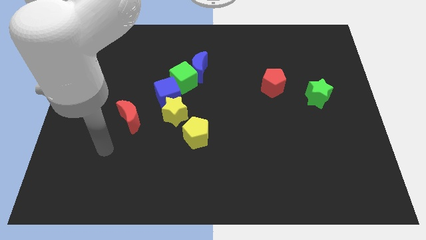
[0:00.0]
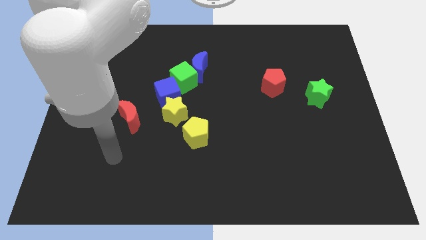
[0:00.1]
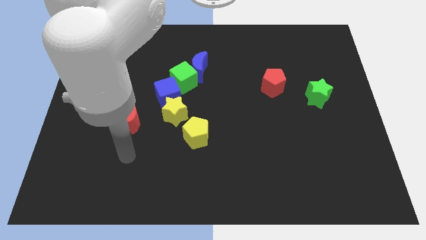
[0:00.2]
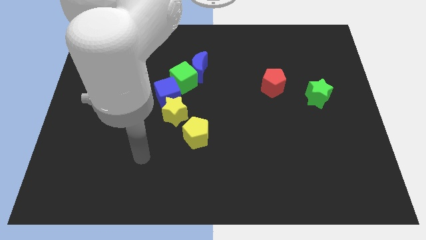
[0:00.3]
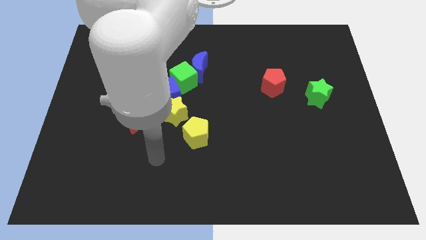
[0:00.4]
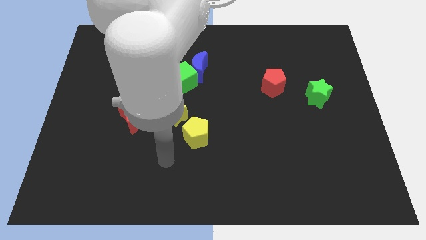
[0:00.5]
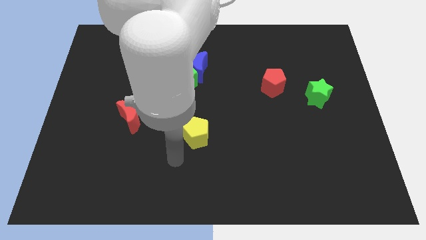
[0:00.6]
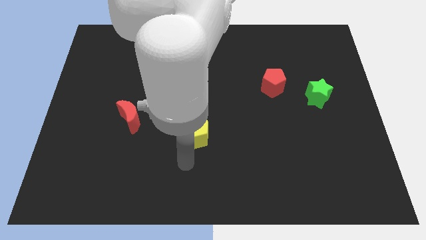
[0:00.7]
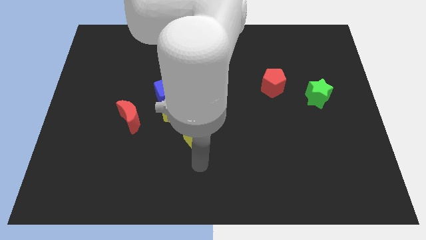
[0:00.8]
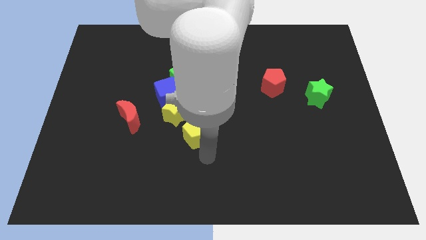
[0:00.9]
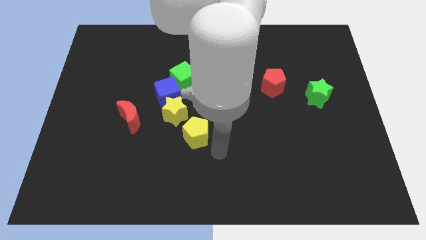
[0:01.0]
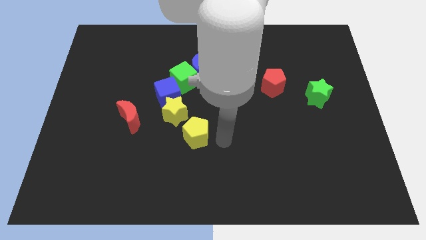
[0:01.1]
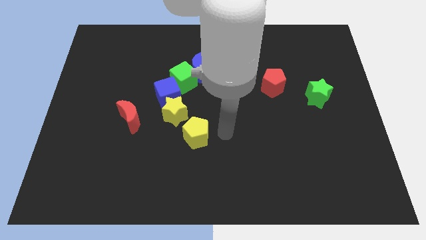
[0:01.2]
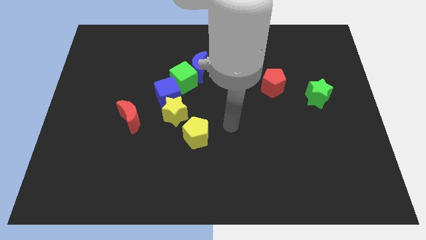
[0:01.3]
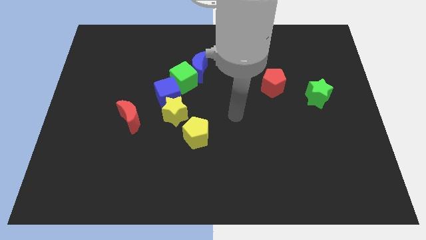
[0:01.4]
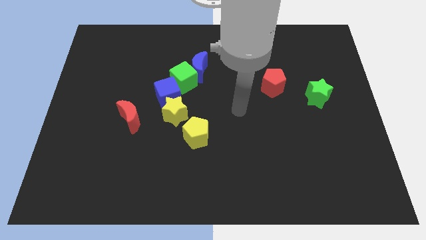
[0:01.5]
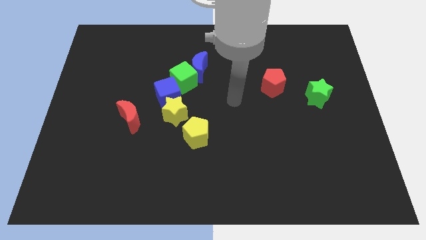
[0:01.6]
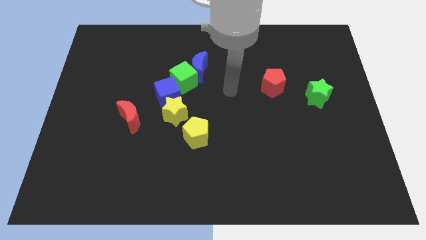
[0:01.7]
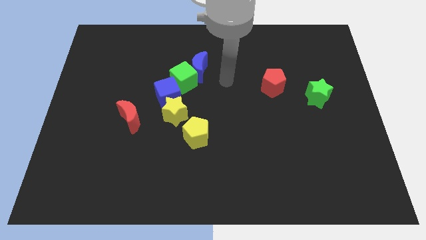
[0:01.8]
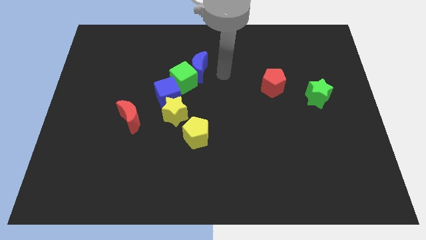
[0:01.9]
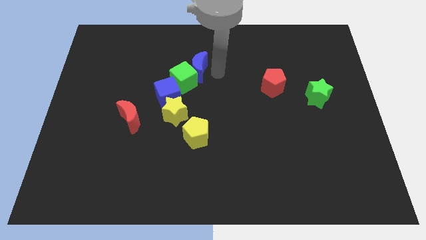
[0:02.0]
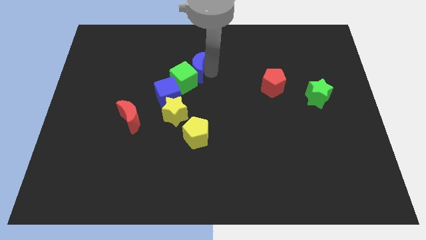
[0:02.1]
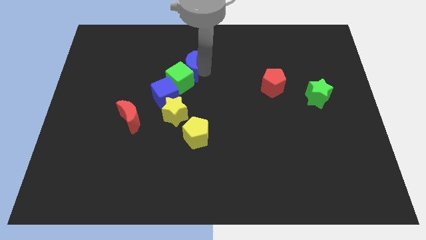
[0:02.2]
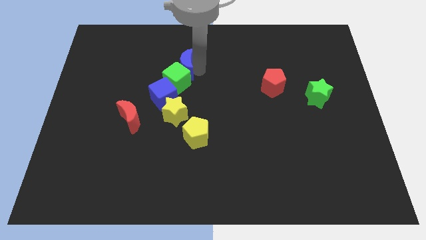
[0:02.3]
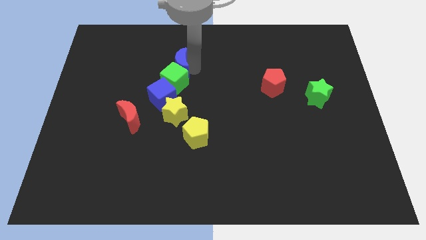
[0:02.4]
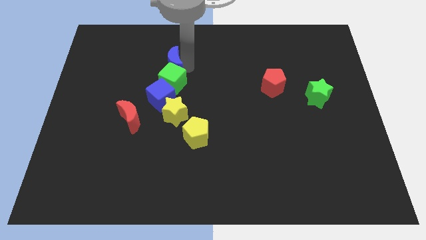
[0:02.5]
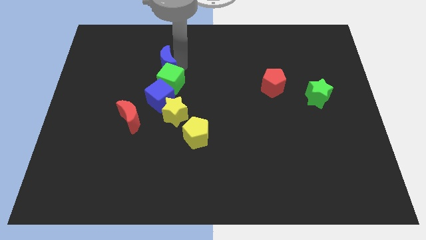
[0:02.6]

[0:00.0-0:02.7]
slide the blue moon left a little

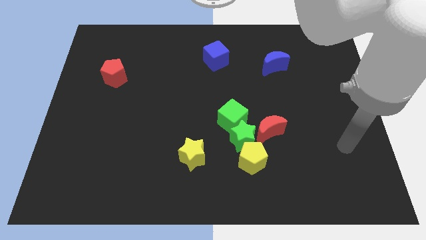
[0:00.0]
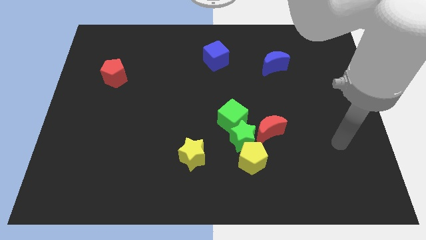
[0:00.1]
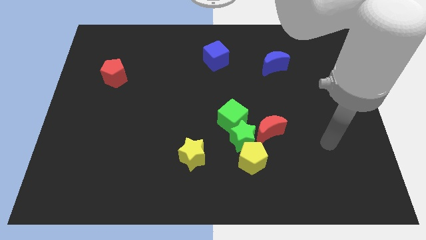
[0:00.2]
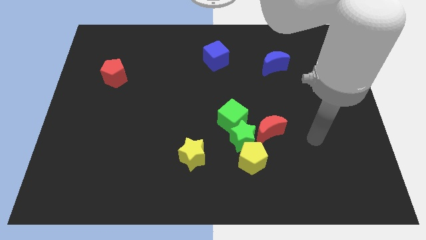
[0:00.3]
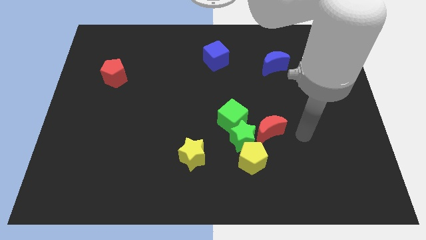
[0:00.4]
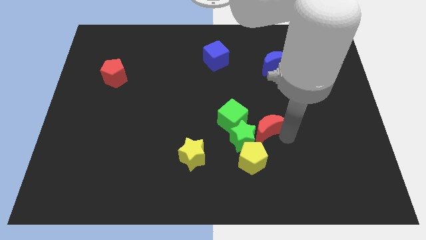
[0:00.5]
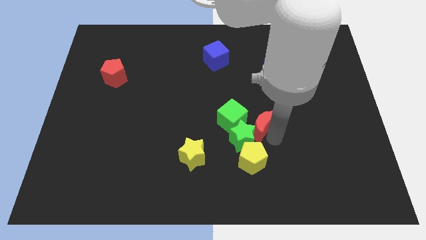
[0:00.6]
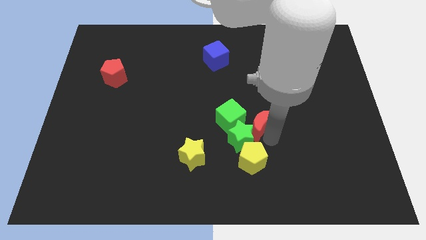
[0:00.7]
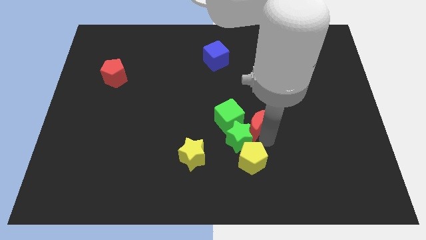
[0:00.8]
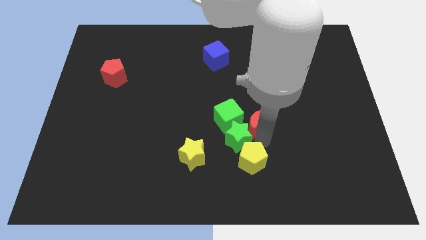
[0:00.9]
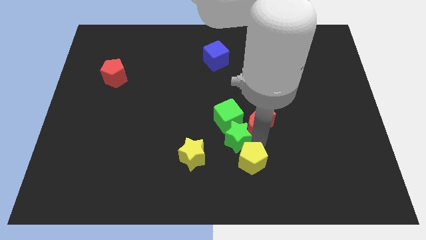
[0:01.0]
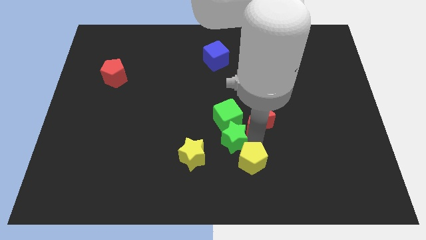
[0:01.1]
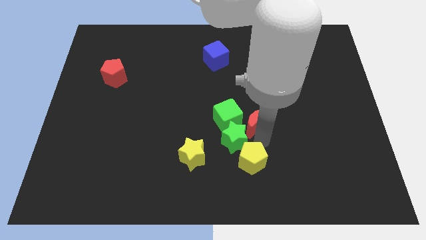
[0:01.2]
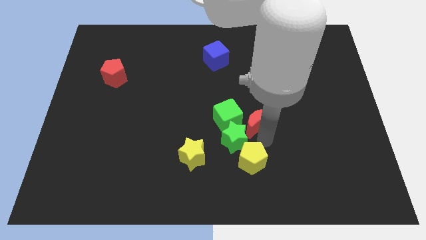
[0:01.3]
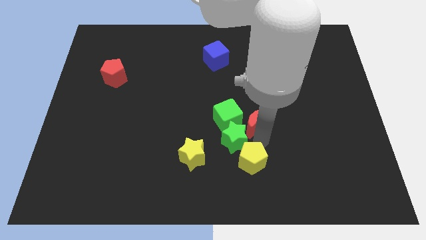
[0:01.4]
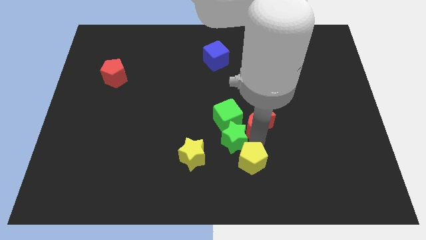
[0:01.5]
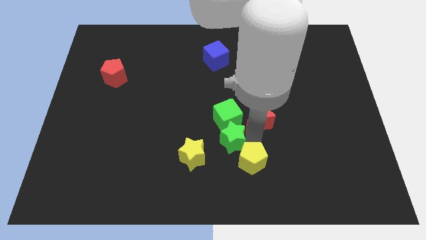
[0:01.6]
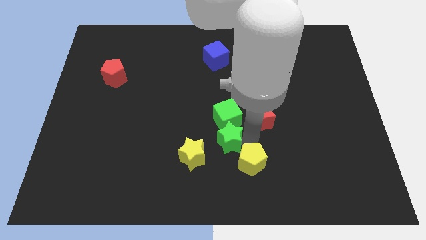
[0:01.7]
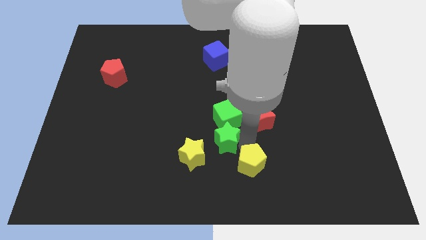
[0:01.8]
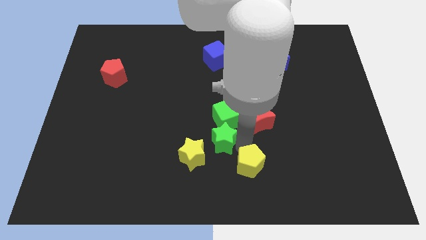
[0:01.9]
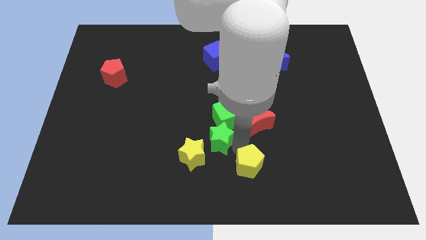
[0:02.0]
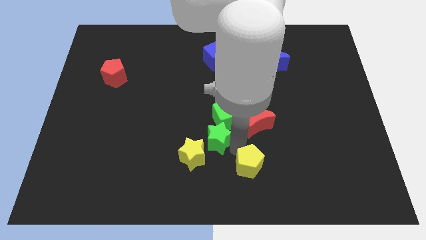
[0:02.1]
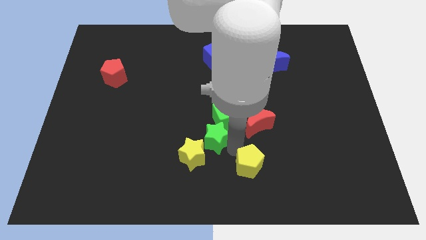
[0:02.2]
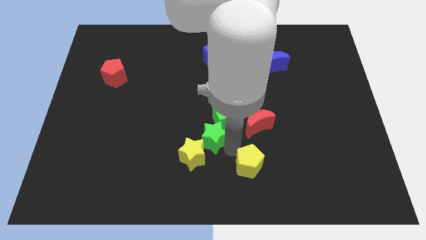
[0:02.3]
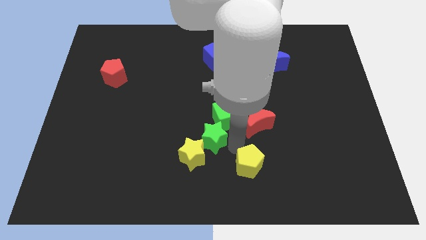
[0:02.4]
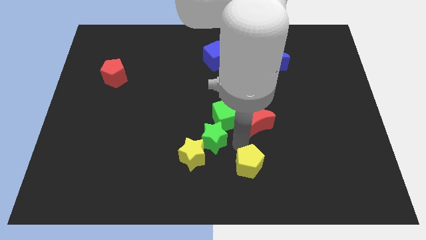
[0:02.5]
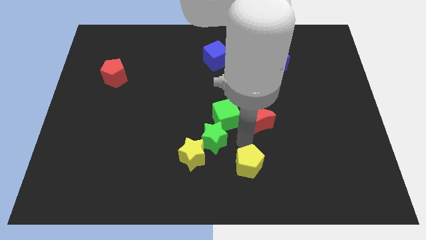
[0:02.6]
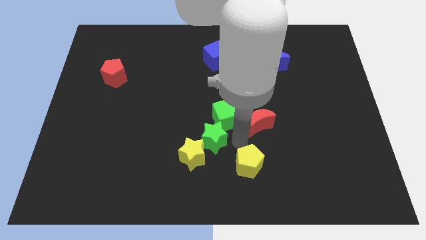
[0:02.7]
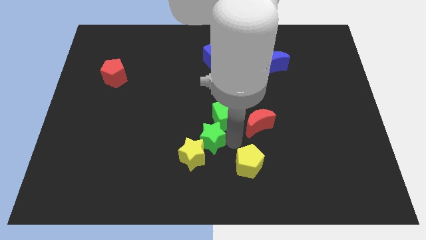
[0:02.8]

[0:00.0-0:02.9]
slightly move the green star to the left

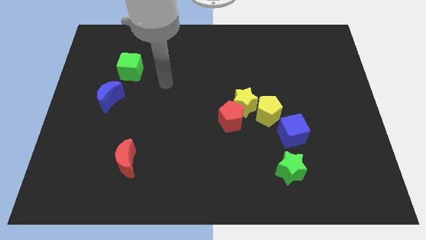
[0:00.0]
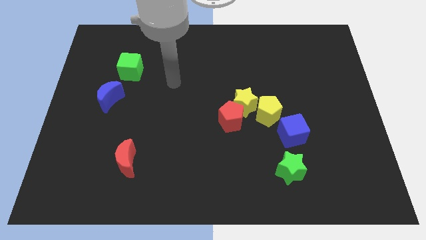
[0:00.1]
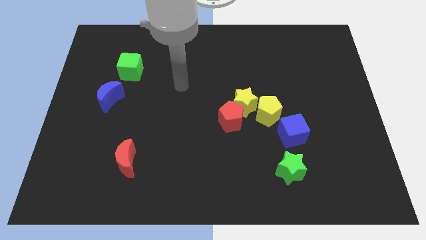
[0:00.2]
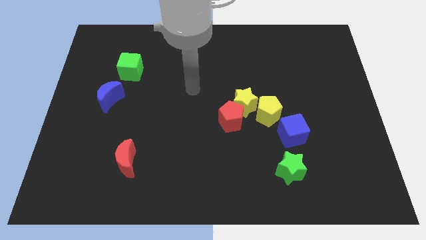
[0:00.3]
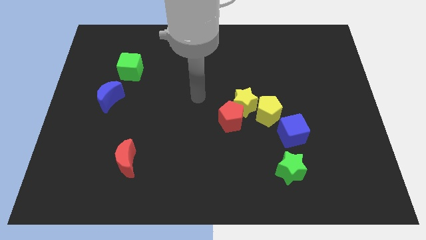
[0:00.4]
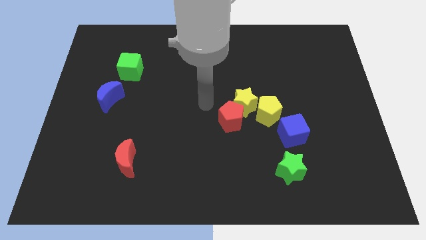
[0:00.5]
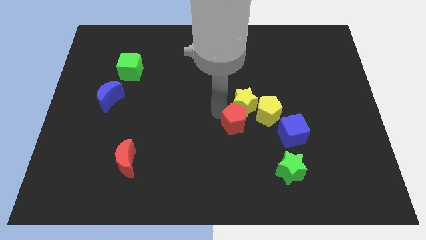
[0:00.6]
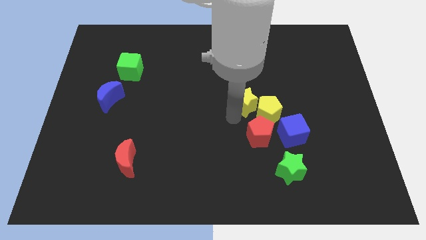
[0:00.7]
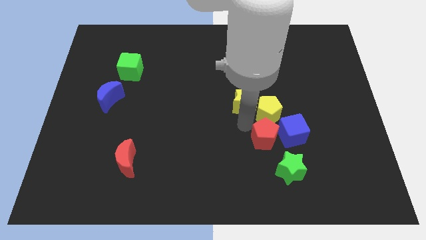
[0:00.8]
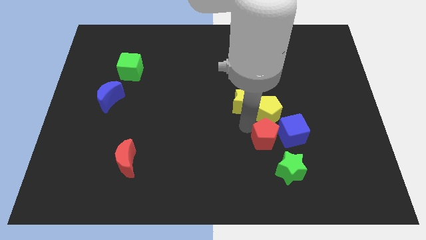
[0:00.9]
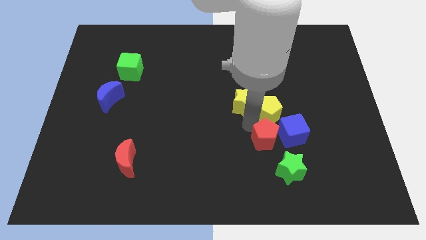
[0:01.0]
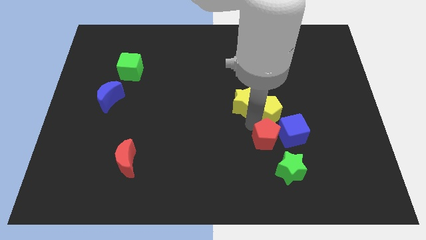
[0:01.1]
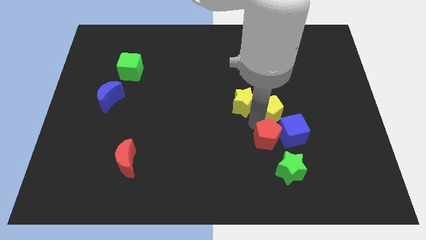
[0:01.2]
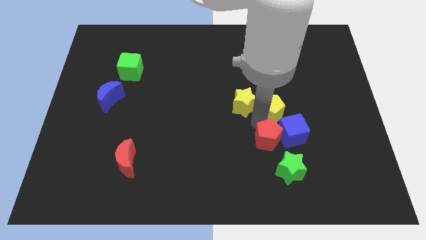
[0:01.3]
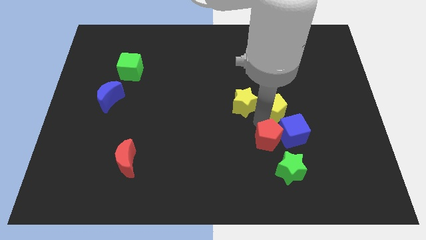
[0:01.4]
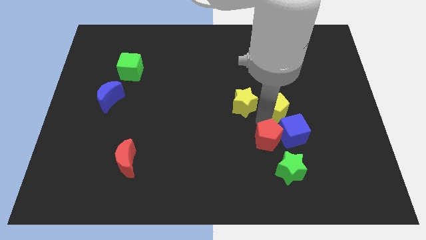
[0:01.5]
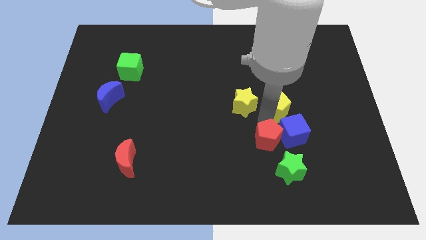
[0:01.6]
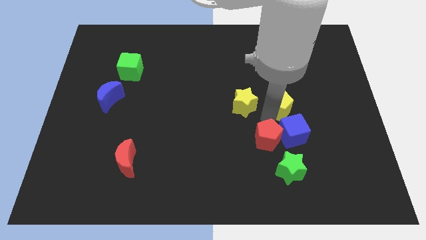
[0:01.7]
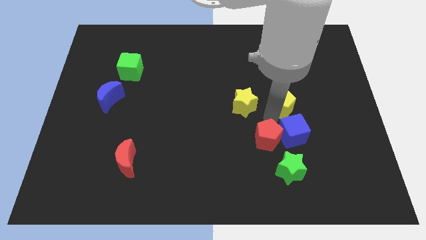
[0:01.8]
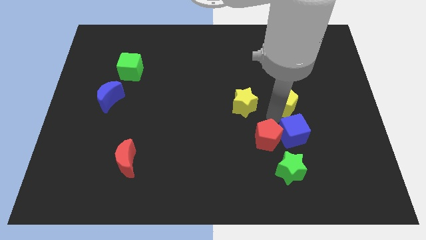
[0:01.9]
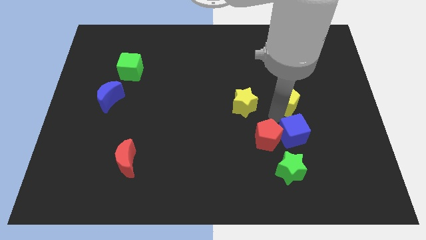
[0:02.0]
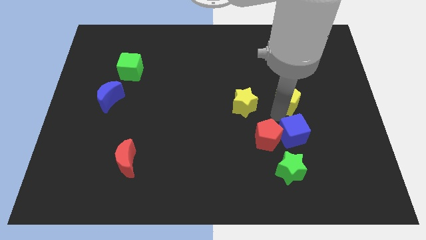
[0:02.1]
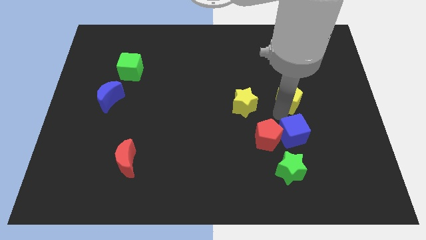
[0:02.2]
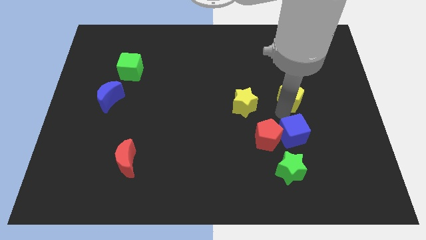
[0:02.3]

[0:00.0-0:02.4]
slide the yellow pentagon a little up and to the right diagonally
